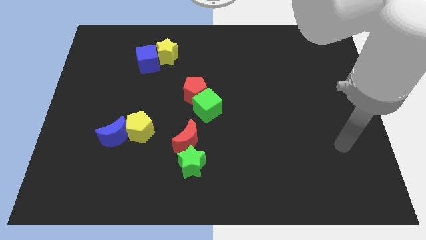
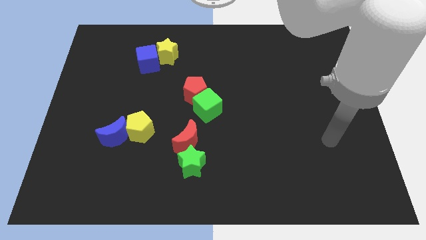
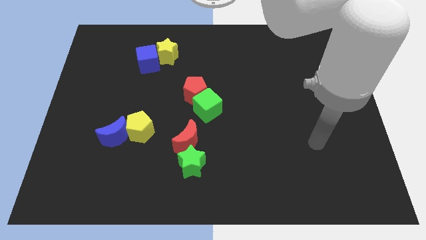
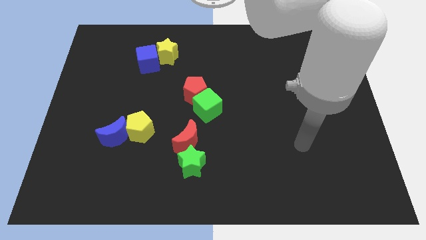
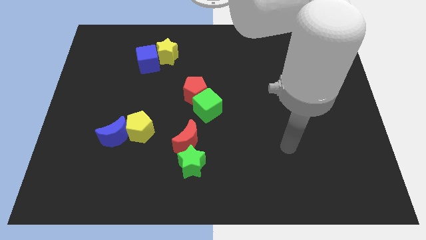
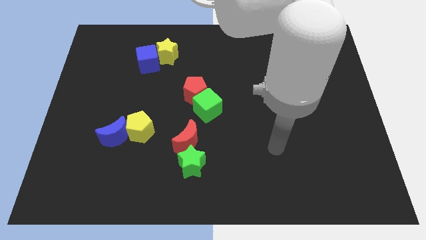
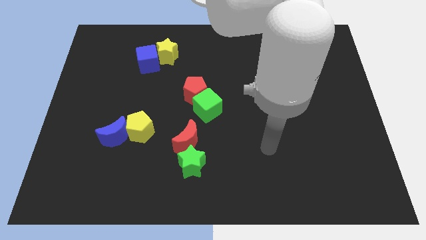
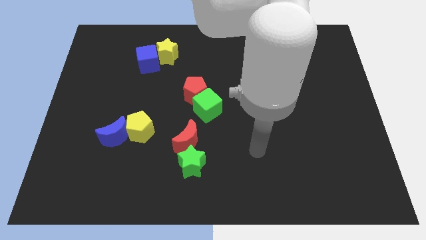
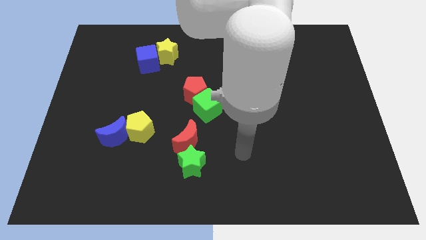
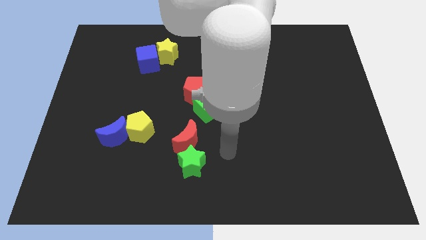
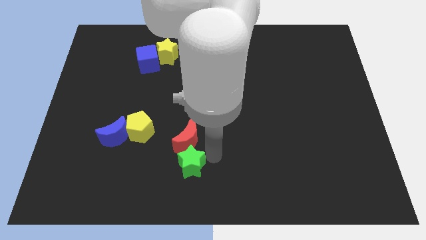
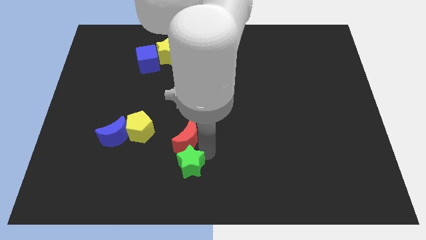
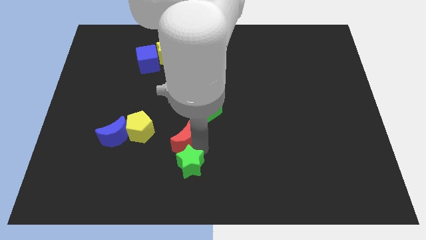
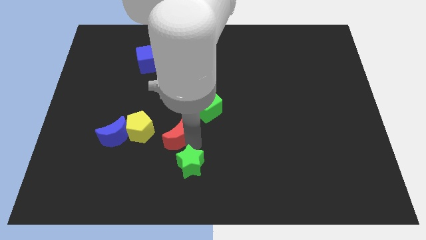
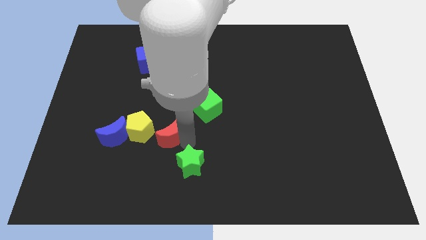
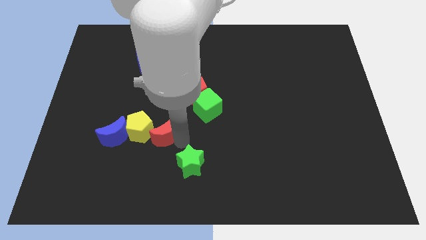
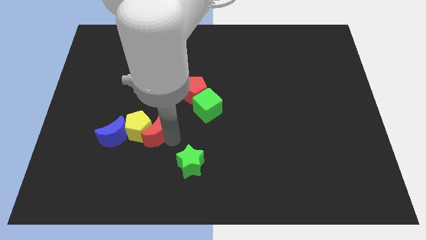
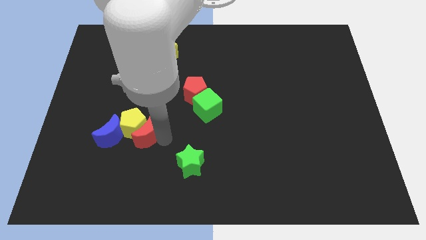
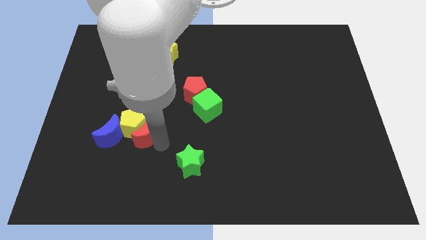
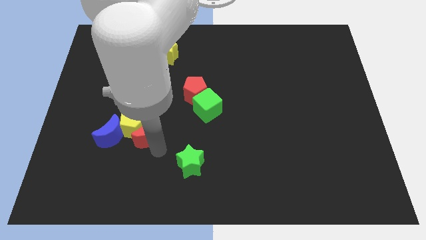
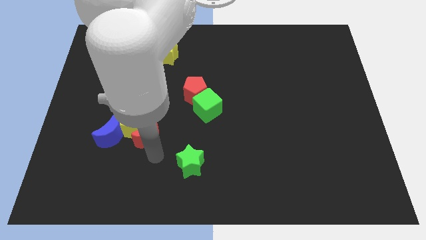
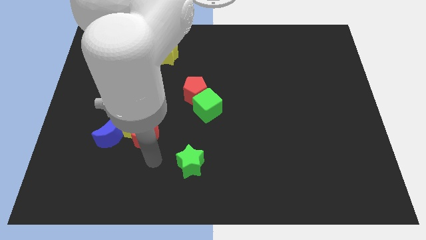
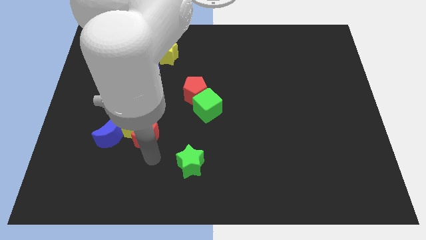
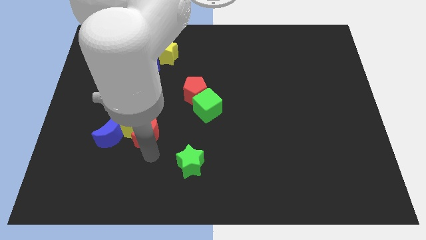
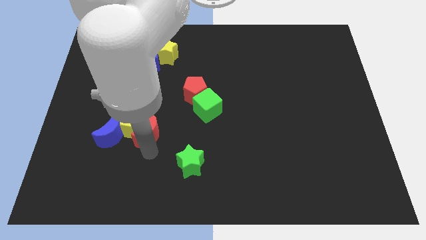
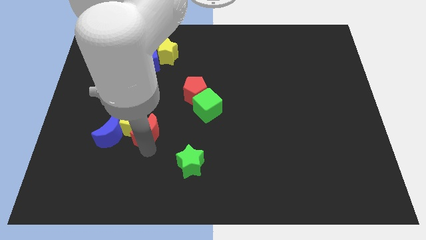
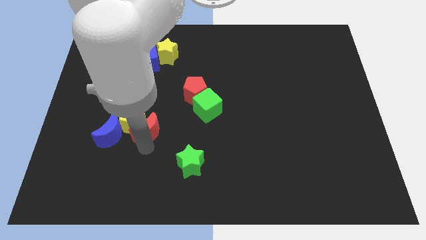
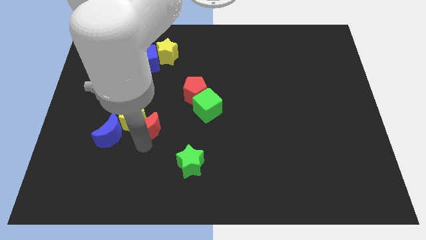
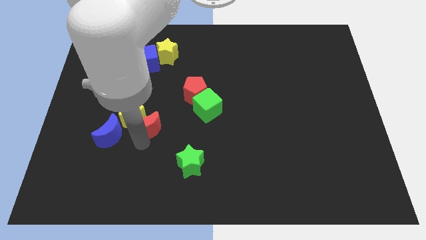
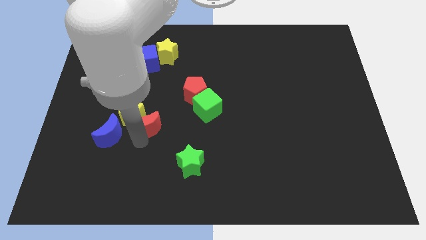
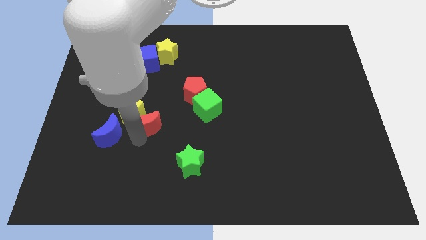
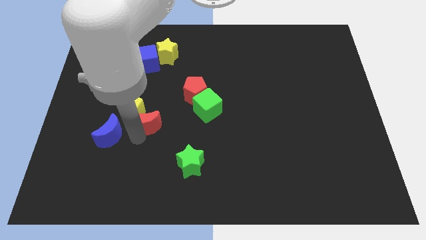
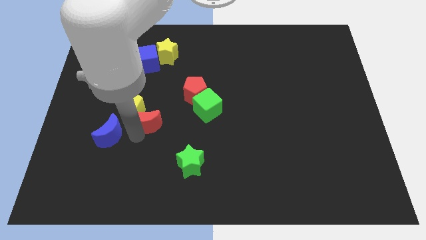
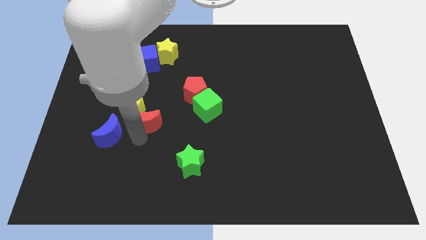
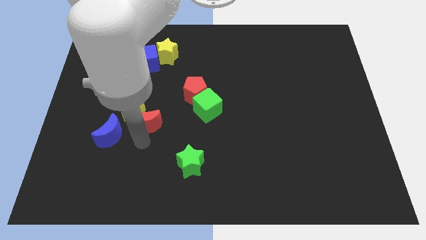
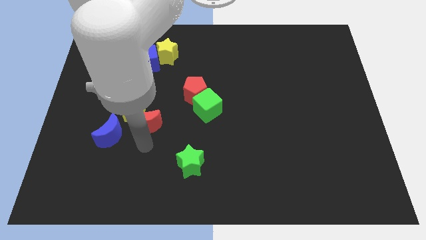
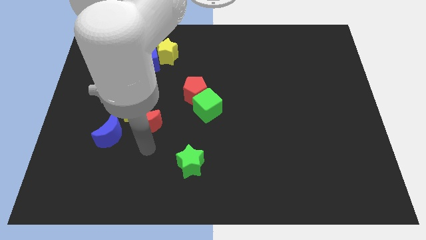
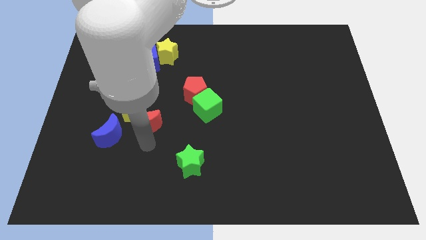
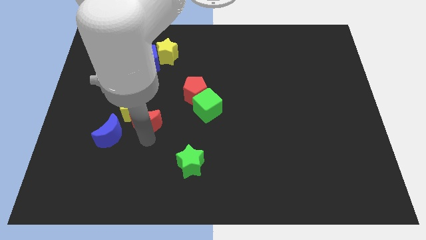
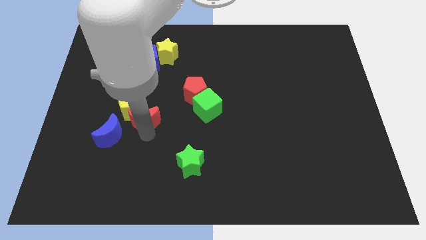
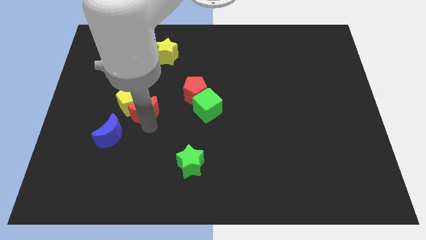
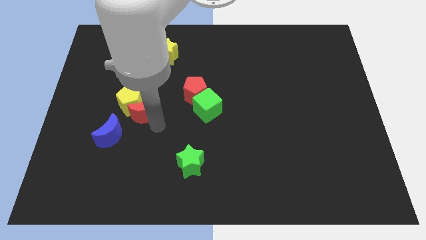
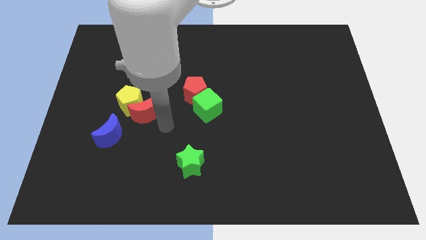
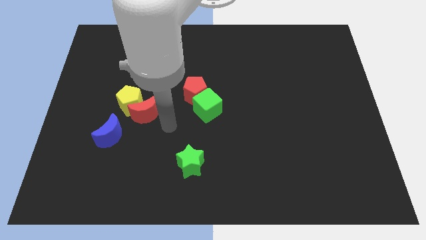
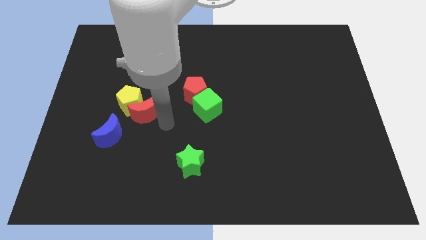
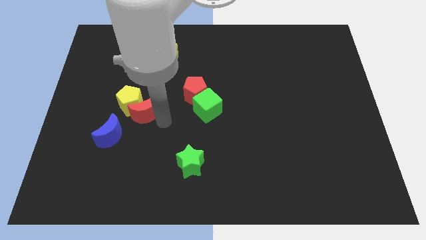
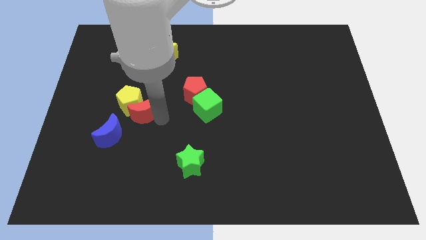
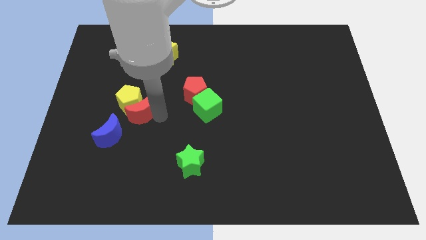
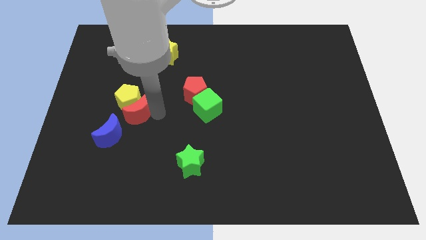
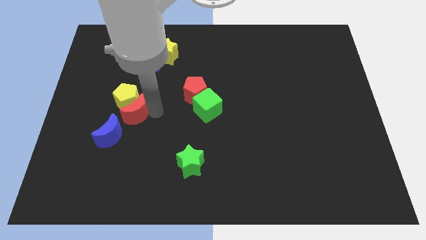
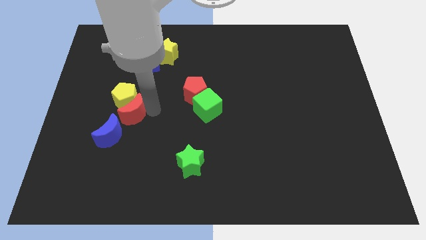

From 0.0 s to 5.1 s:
move the red moon to the top side of the blue moon

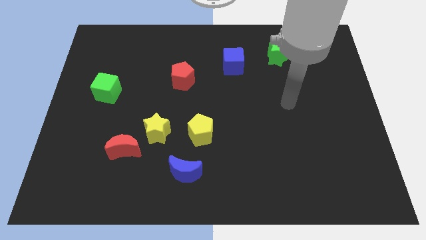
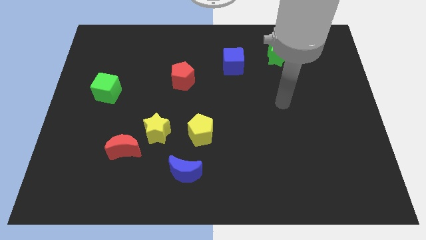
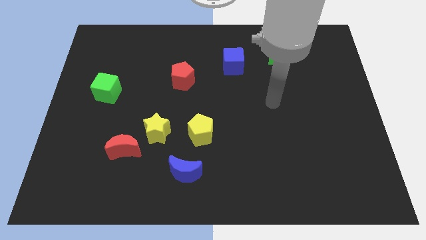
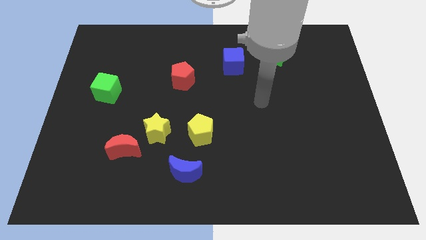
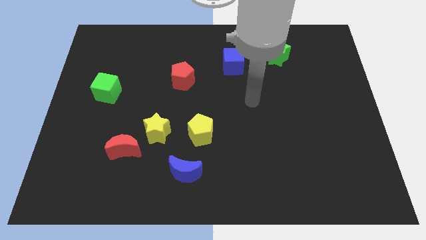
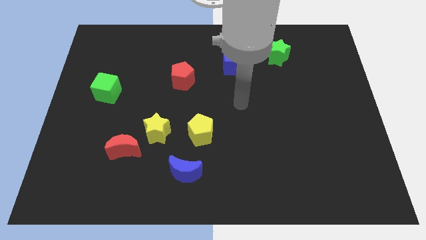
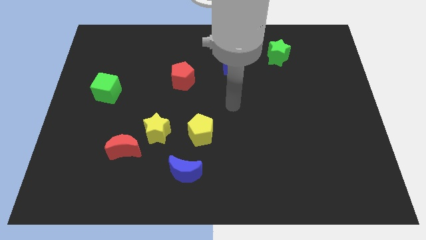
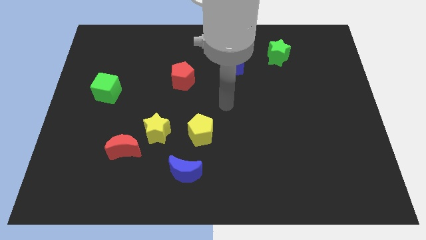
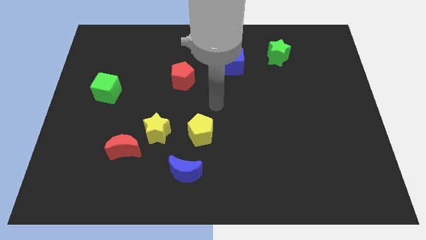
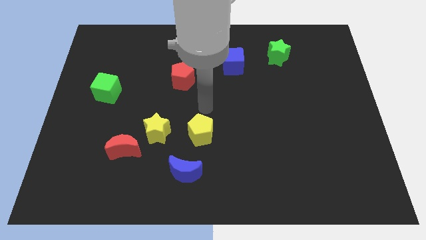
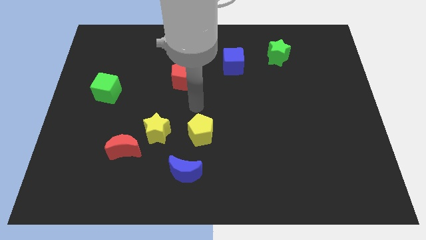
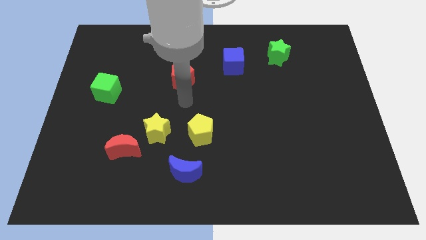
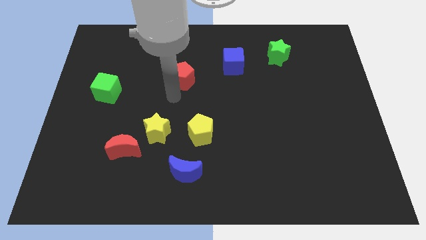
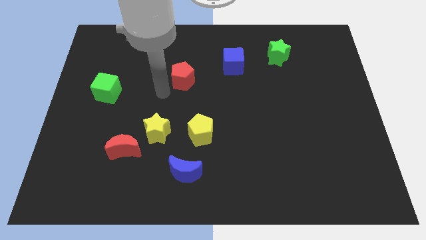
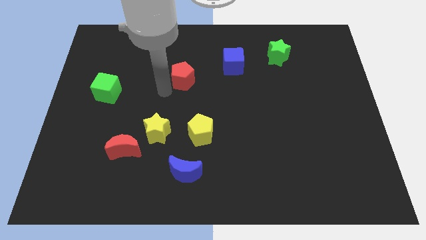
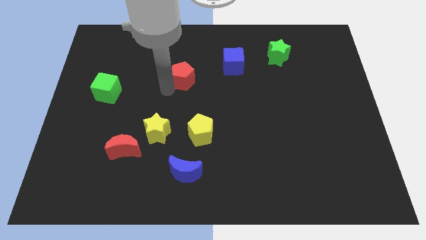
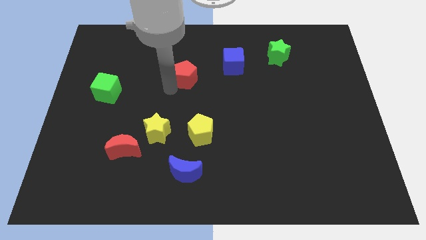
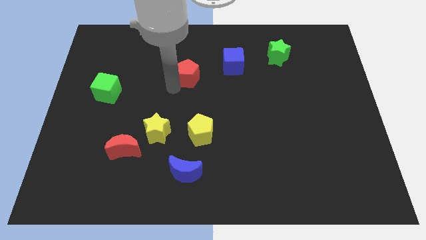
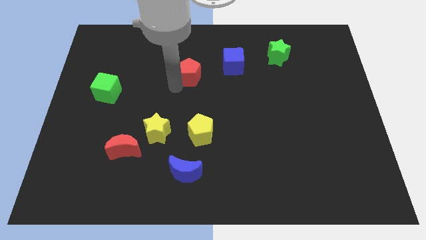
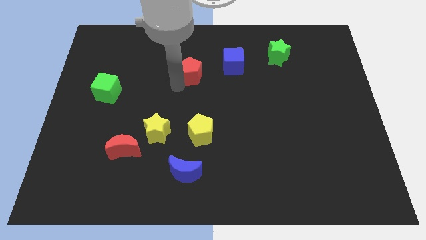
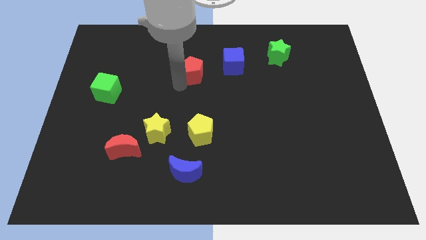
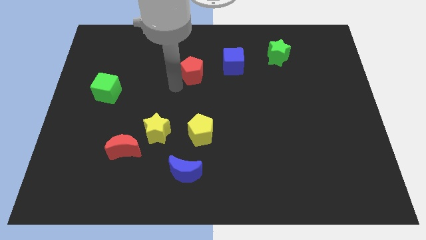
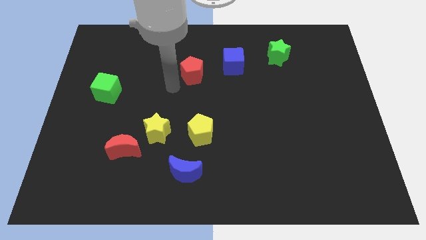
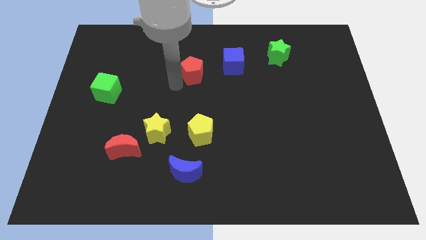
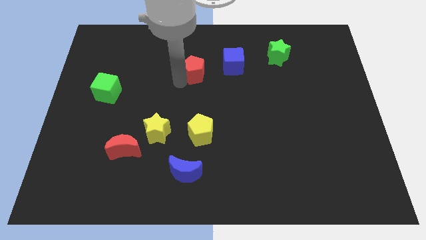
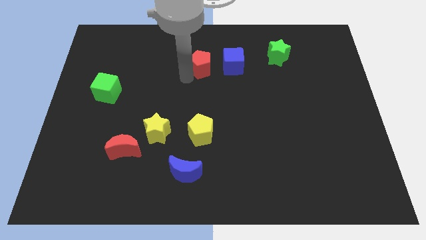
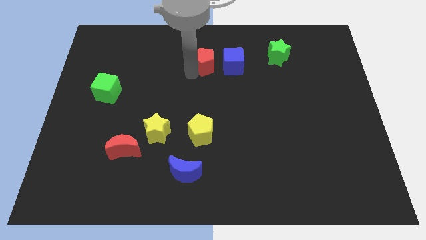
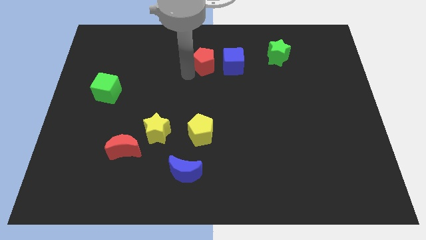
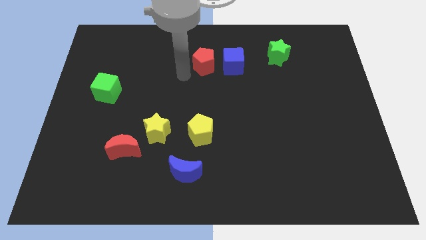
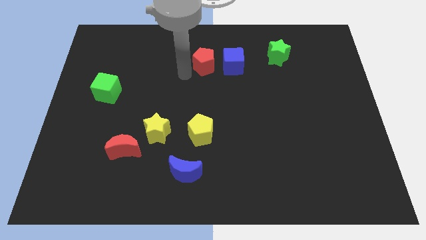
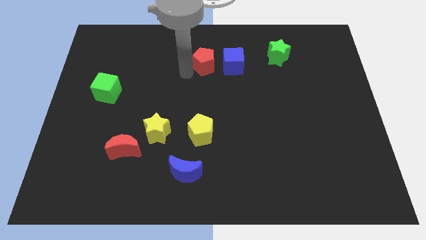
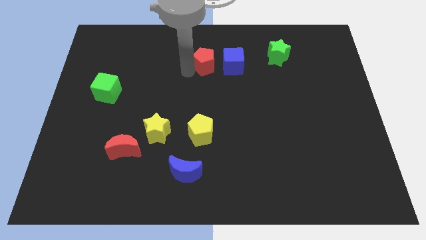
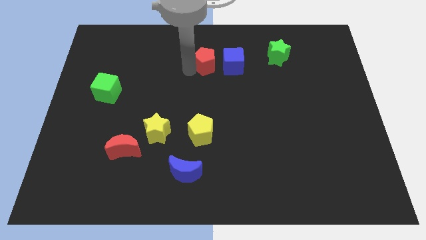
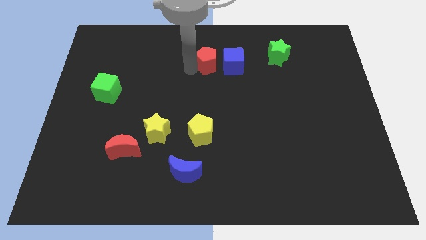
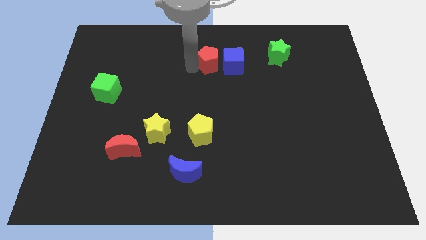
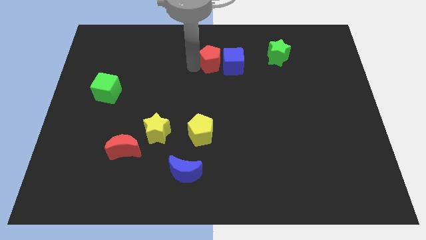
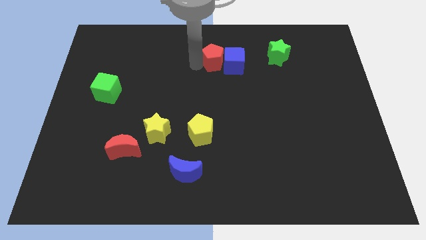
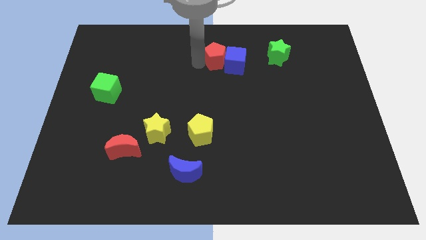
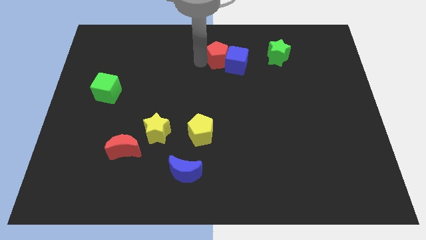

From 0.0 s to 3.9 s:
slide the red pentagon left of the green star
